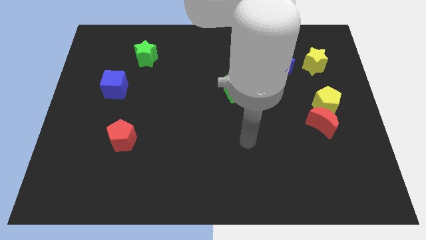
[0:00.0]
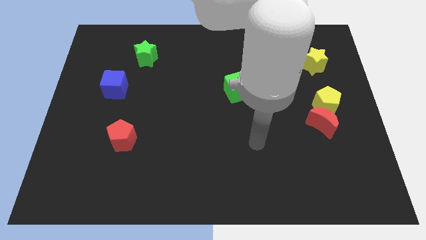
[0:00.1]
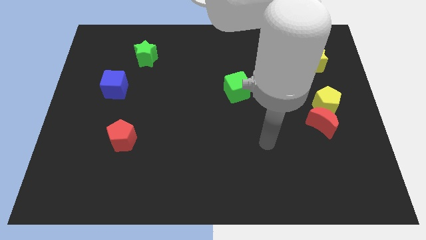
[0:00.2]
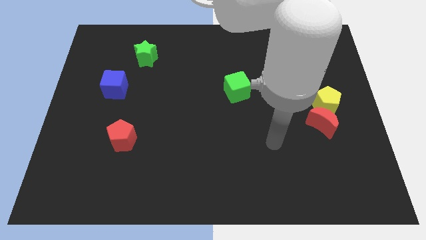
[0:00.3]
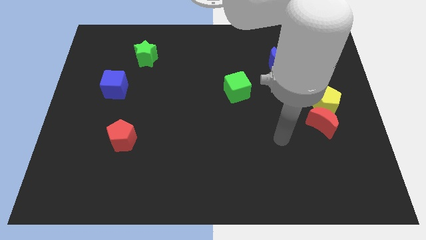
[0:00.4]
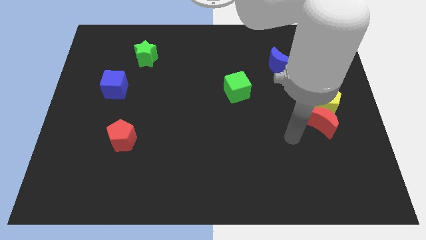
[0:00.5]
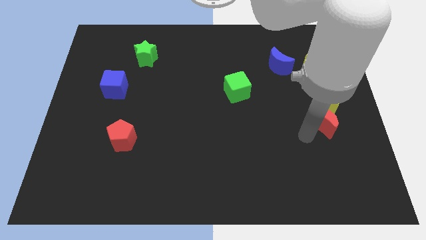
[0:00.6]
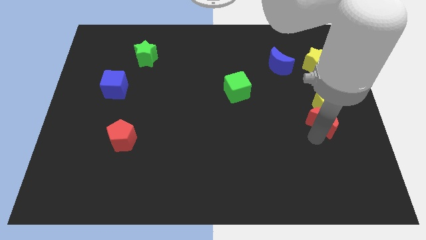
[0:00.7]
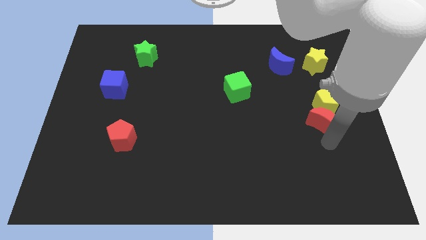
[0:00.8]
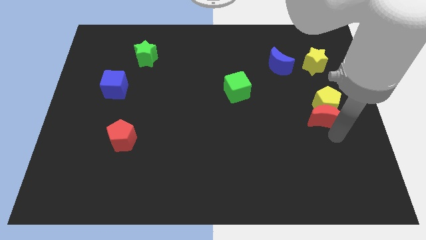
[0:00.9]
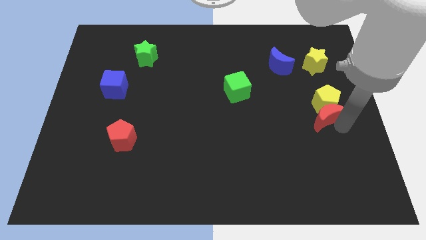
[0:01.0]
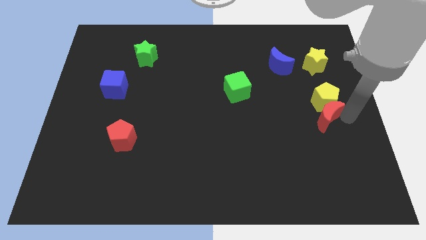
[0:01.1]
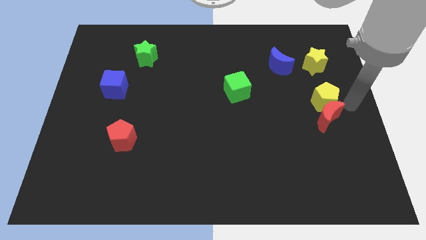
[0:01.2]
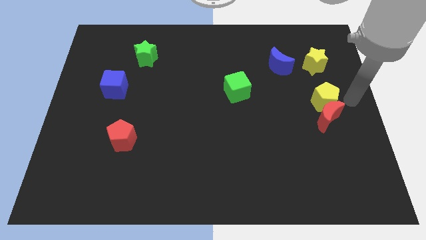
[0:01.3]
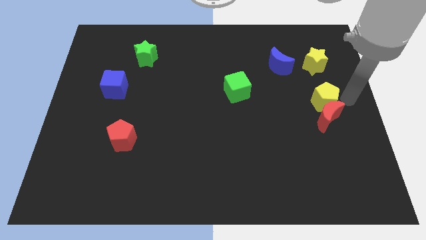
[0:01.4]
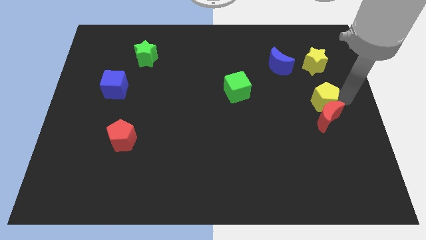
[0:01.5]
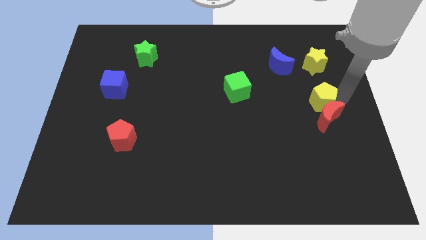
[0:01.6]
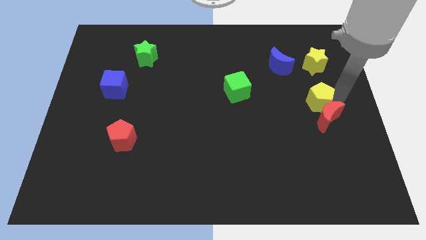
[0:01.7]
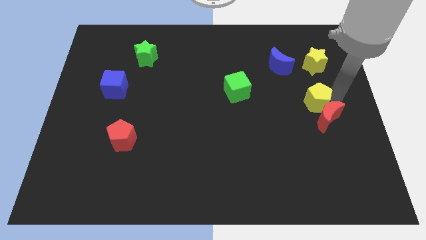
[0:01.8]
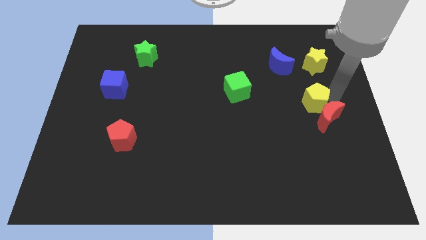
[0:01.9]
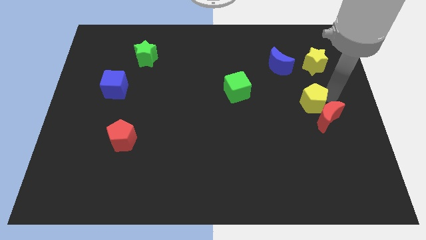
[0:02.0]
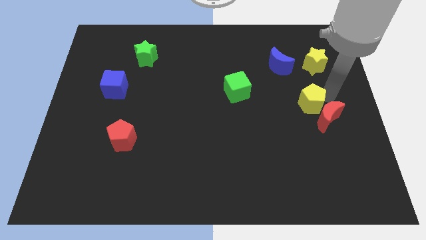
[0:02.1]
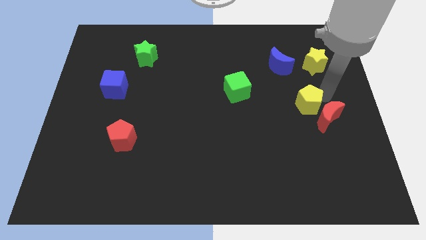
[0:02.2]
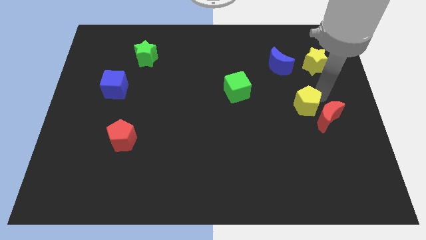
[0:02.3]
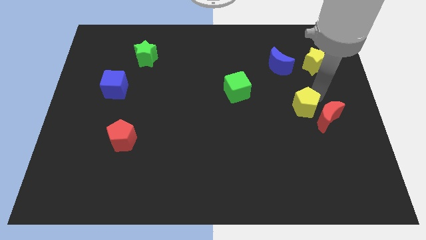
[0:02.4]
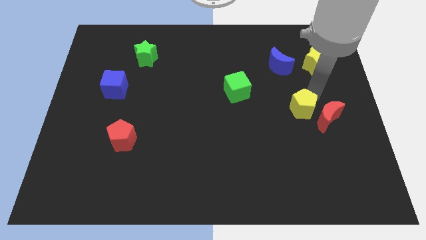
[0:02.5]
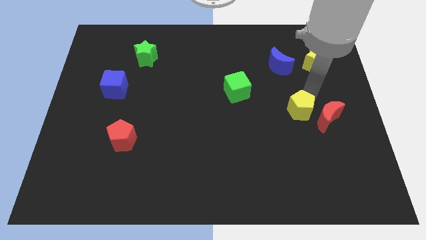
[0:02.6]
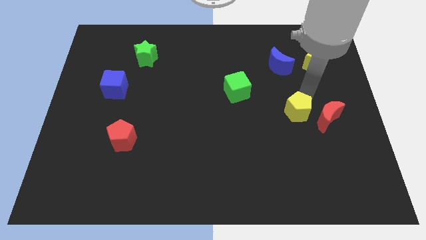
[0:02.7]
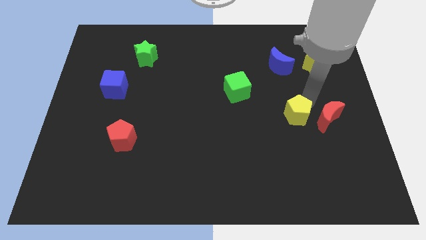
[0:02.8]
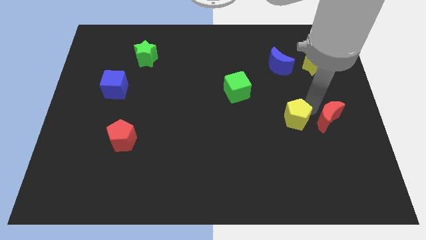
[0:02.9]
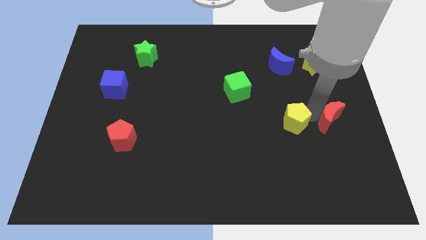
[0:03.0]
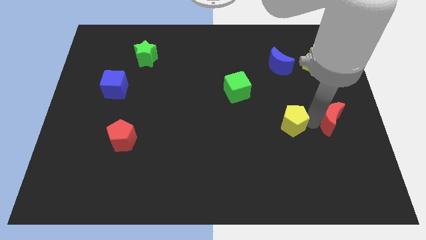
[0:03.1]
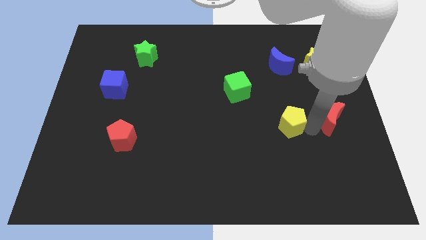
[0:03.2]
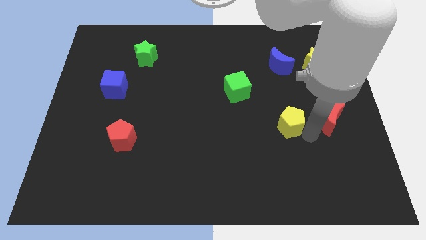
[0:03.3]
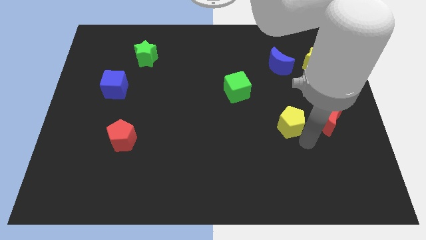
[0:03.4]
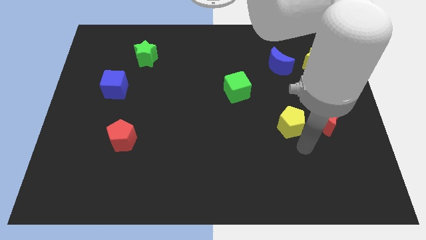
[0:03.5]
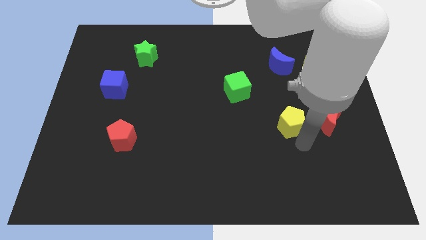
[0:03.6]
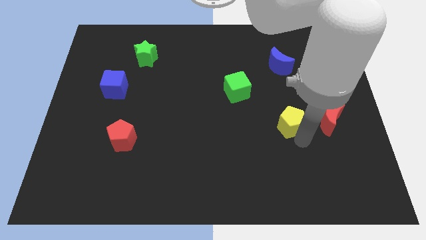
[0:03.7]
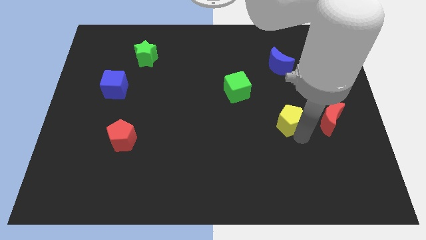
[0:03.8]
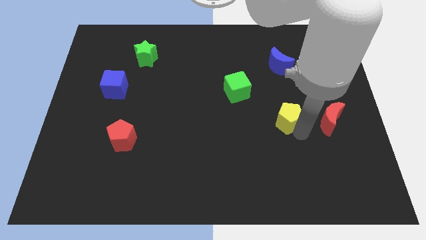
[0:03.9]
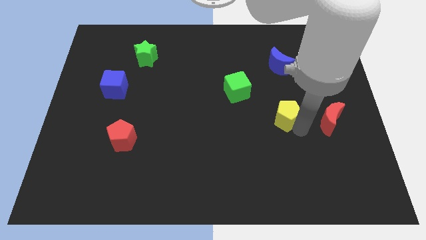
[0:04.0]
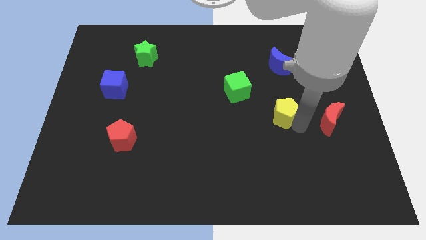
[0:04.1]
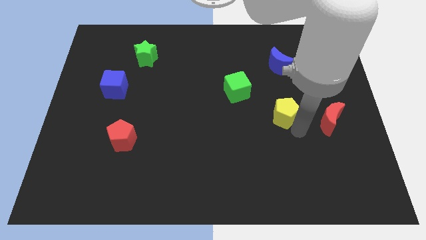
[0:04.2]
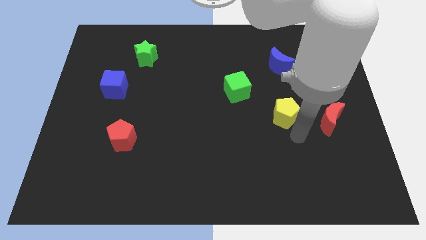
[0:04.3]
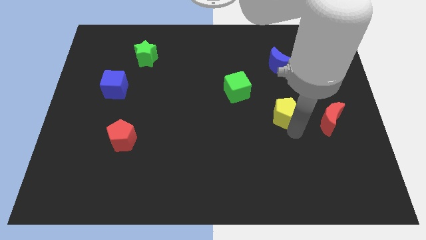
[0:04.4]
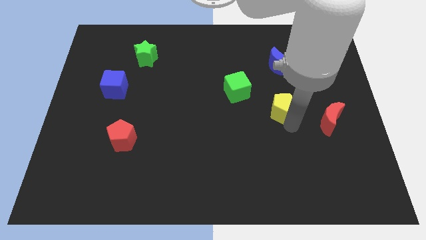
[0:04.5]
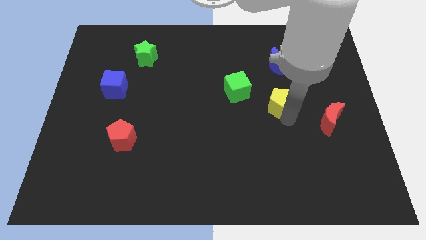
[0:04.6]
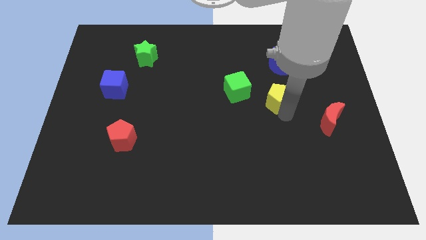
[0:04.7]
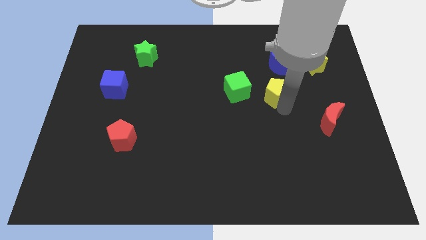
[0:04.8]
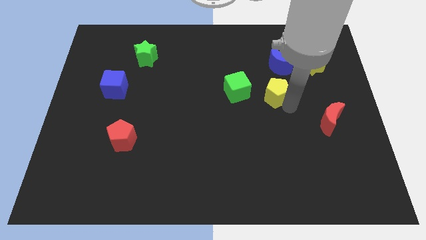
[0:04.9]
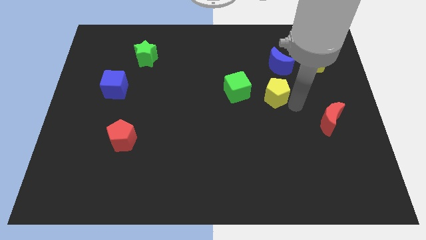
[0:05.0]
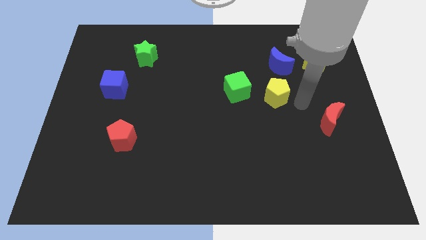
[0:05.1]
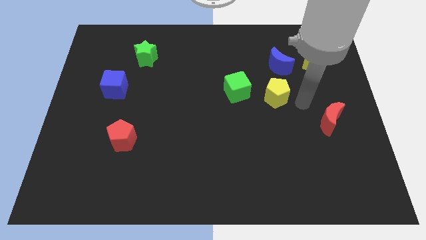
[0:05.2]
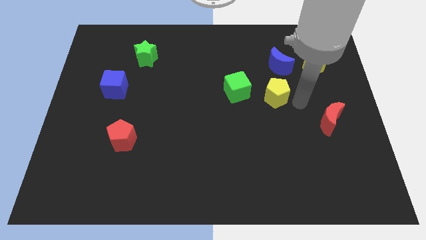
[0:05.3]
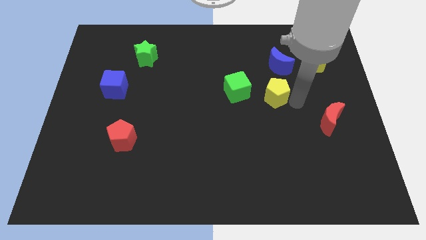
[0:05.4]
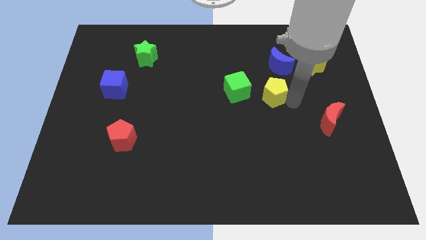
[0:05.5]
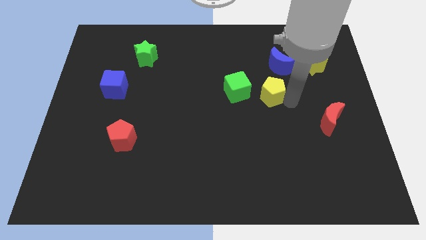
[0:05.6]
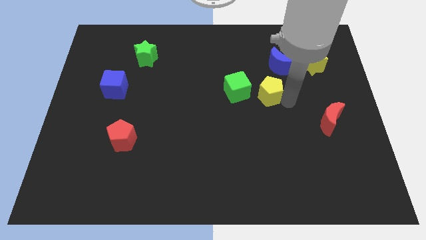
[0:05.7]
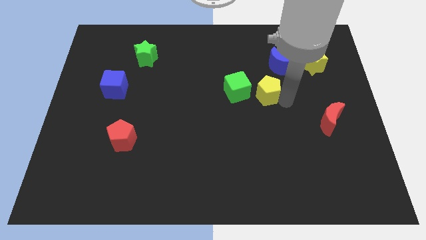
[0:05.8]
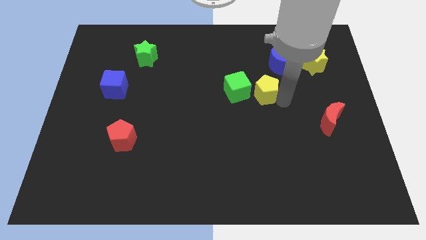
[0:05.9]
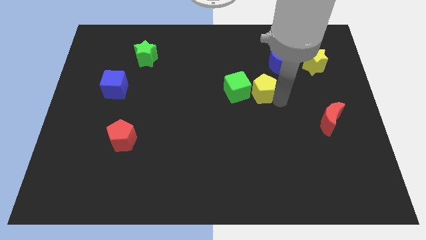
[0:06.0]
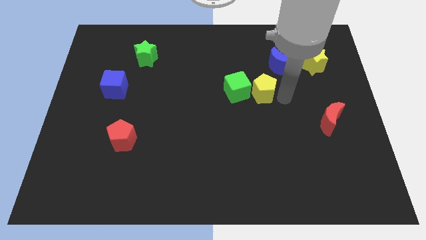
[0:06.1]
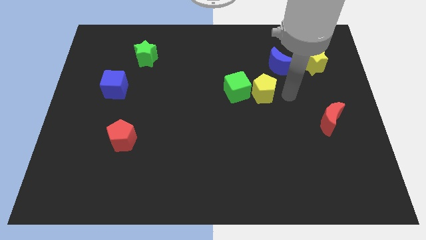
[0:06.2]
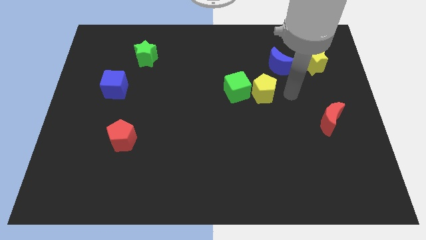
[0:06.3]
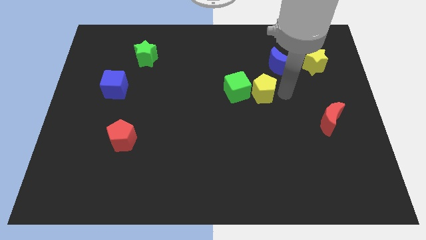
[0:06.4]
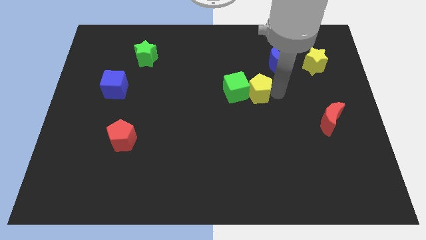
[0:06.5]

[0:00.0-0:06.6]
put the yellow pentagon next to the green cube

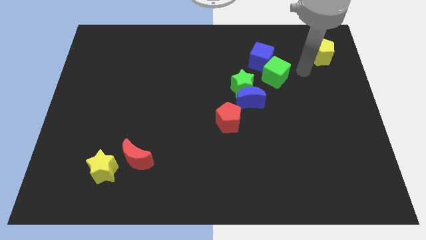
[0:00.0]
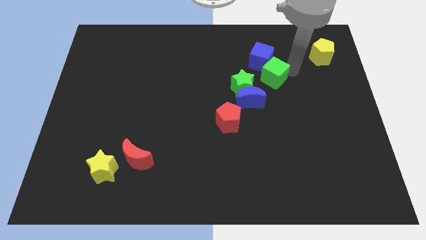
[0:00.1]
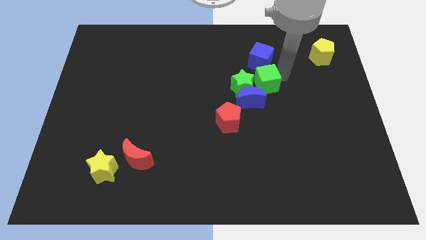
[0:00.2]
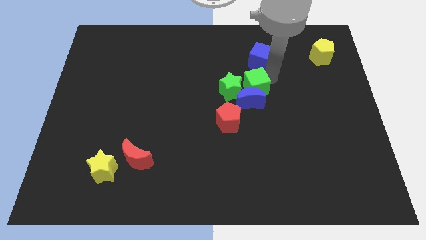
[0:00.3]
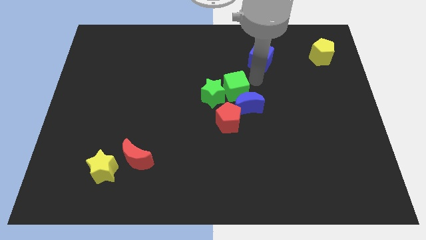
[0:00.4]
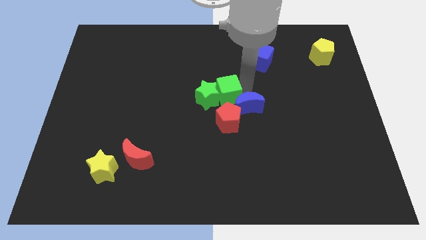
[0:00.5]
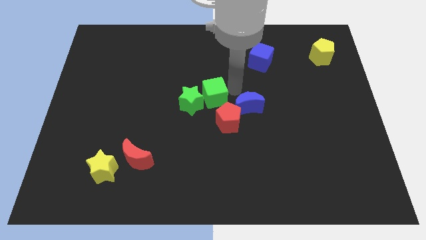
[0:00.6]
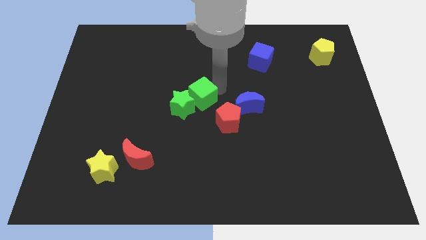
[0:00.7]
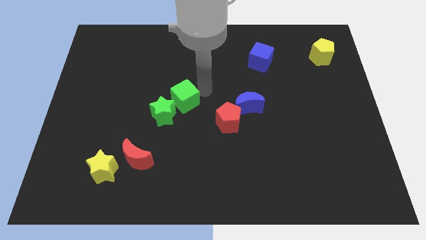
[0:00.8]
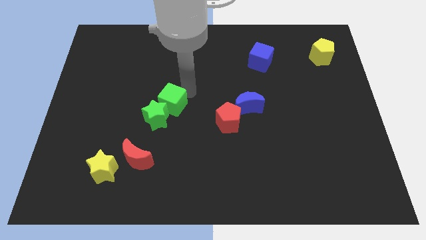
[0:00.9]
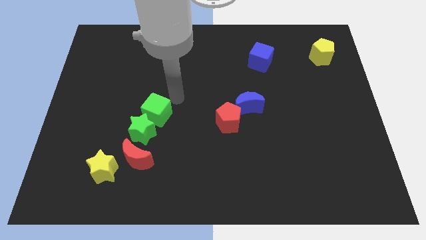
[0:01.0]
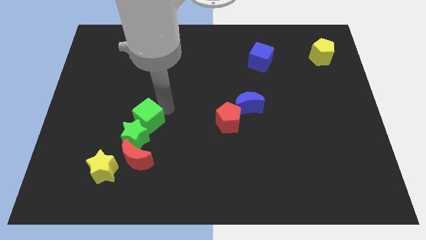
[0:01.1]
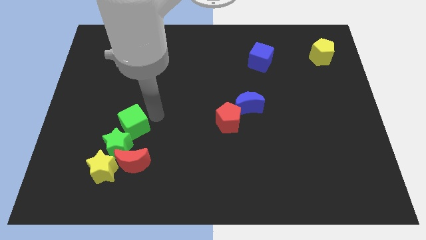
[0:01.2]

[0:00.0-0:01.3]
put the green star next to the yellow star
